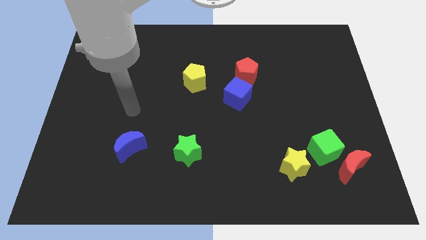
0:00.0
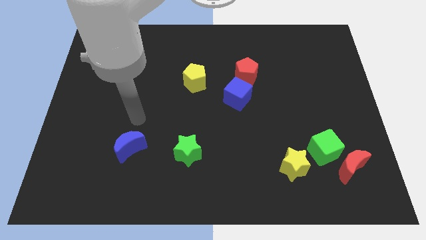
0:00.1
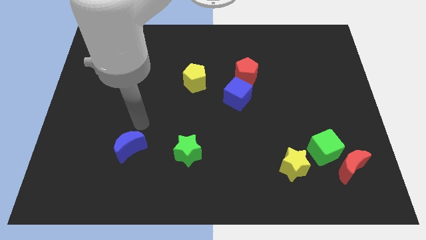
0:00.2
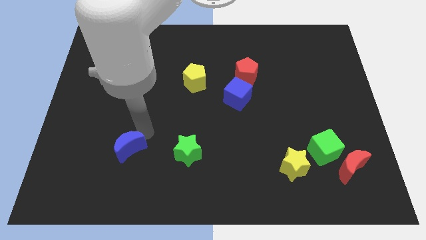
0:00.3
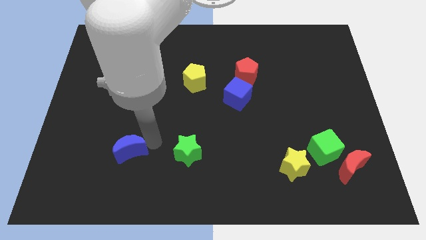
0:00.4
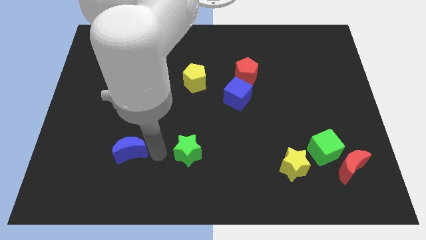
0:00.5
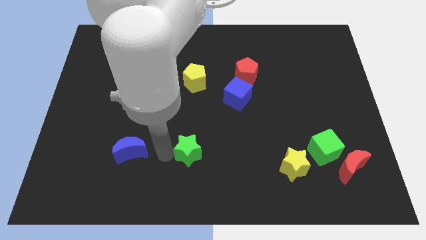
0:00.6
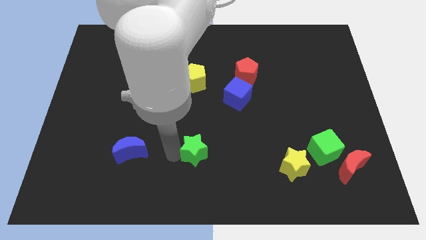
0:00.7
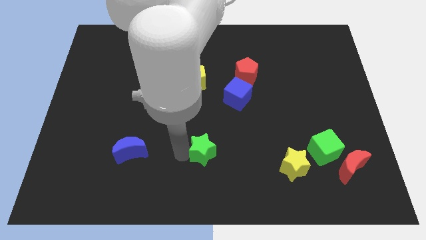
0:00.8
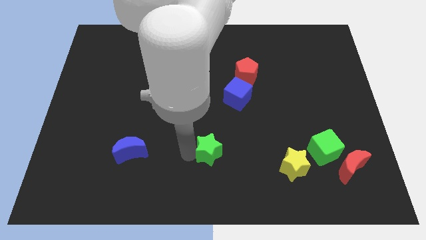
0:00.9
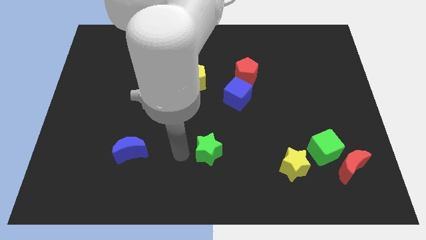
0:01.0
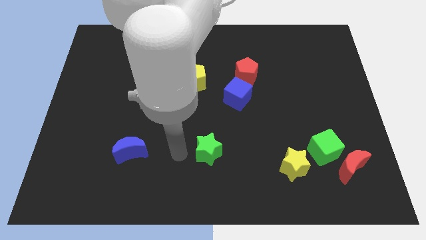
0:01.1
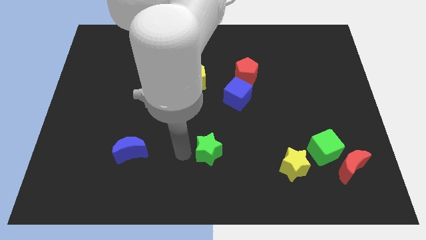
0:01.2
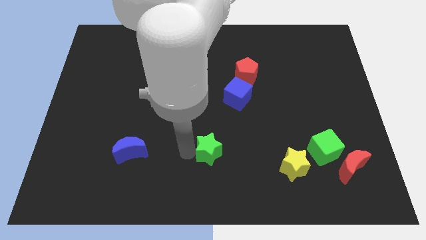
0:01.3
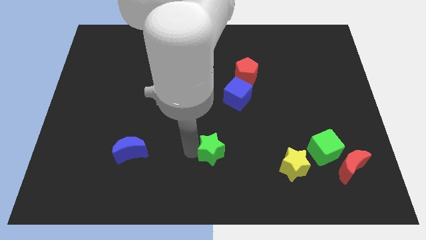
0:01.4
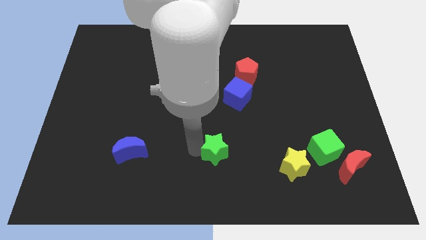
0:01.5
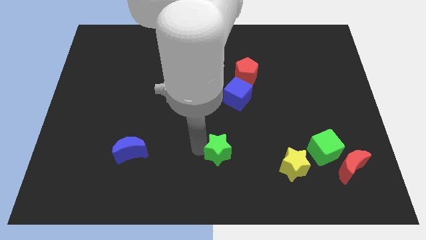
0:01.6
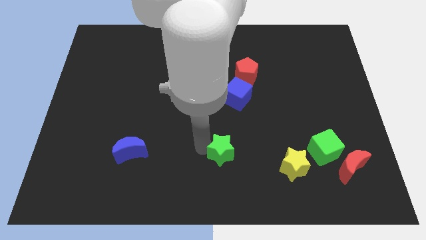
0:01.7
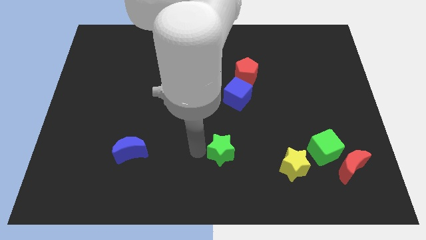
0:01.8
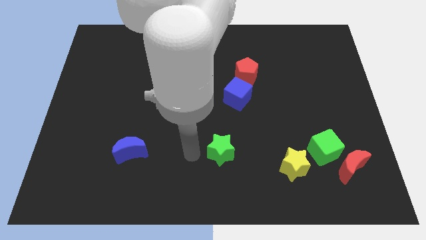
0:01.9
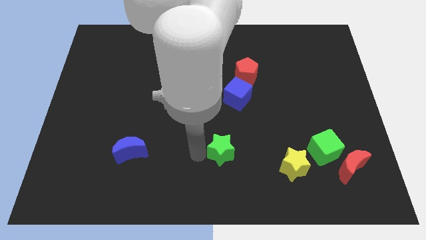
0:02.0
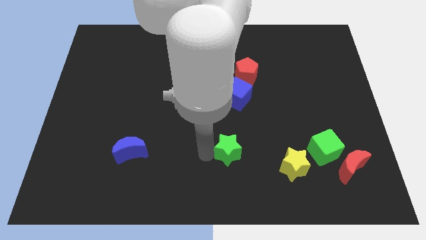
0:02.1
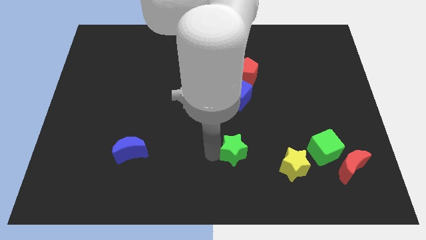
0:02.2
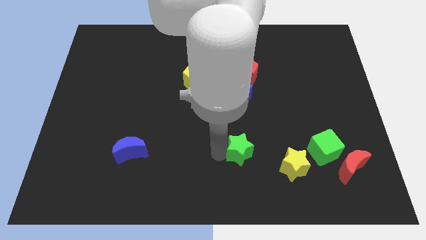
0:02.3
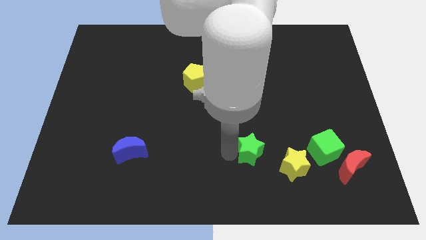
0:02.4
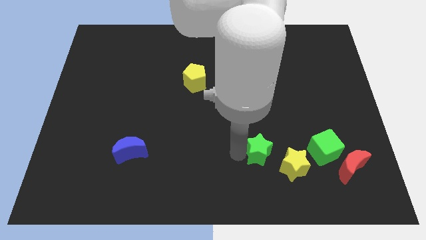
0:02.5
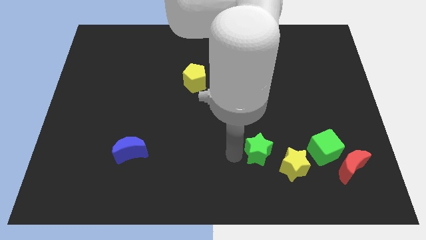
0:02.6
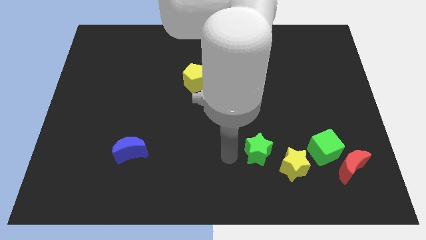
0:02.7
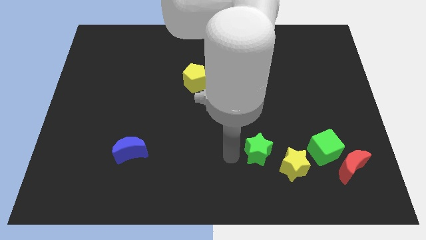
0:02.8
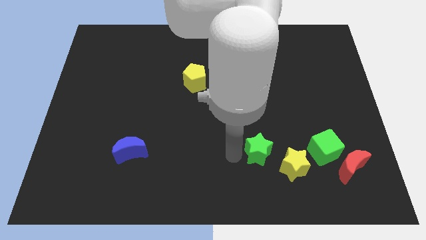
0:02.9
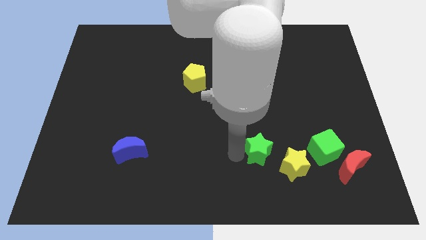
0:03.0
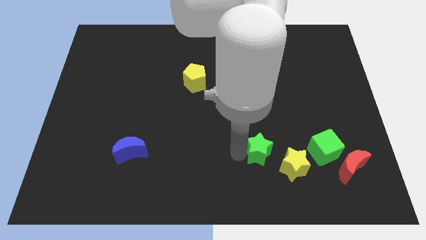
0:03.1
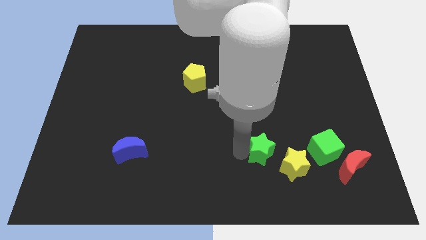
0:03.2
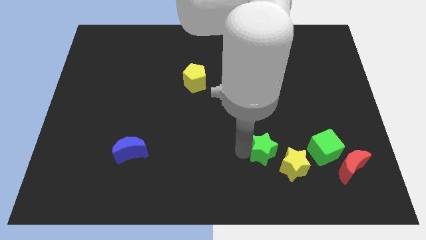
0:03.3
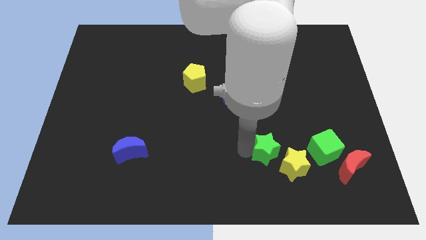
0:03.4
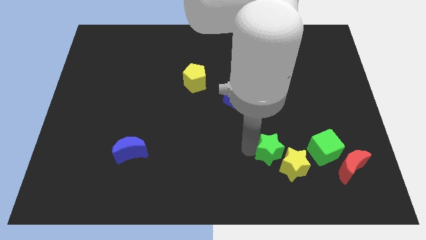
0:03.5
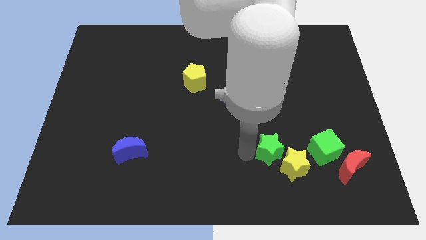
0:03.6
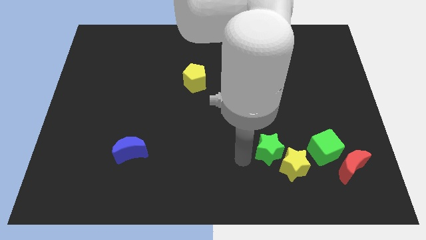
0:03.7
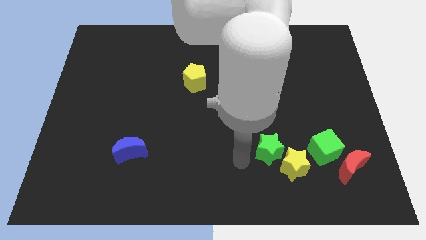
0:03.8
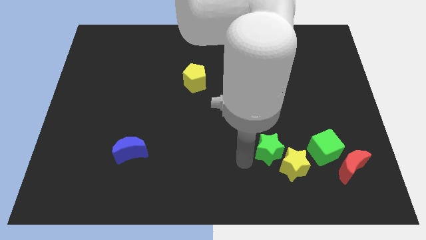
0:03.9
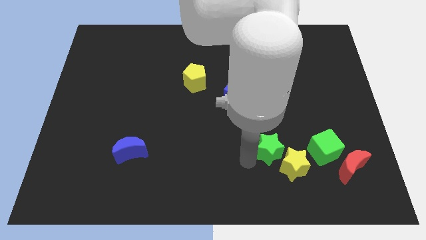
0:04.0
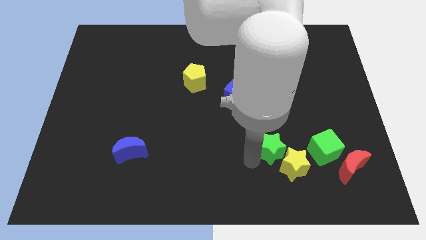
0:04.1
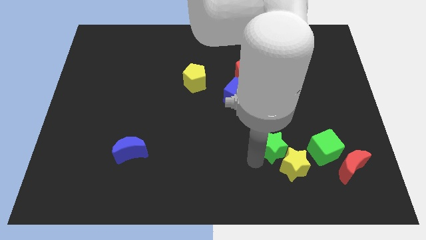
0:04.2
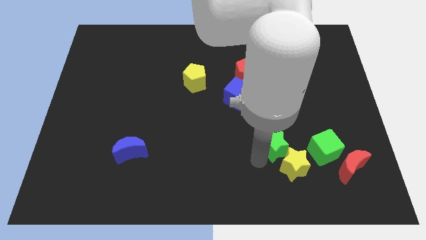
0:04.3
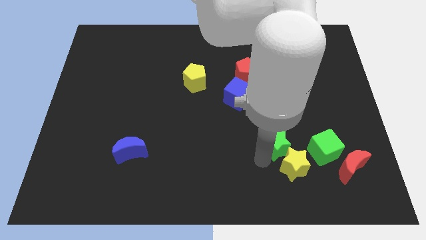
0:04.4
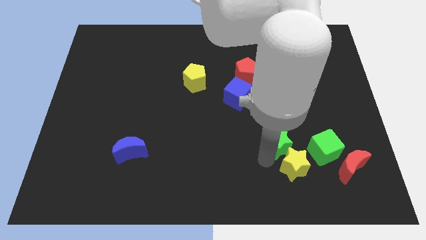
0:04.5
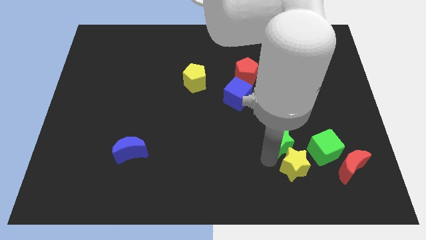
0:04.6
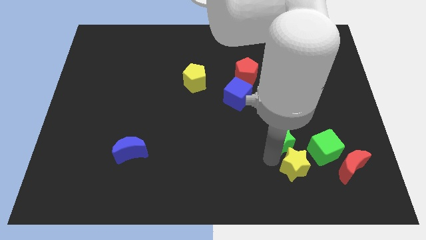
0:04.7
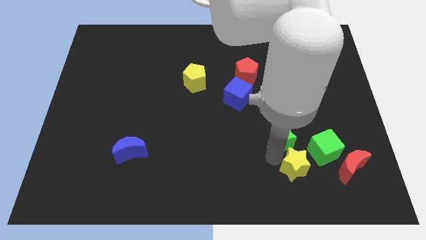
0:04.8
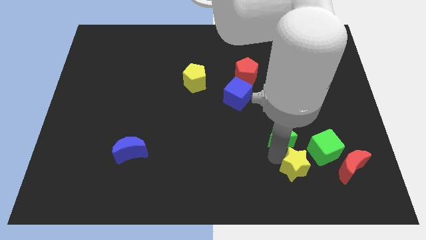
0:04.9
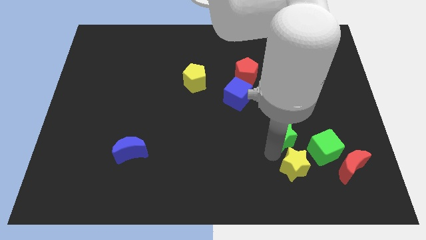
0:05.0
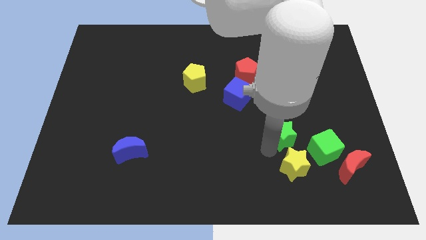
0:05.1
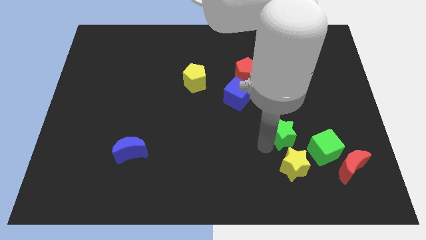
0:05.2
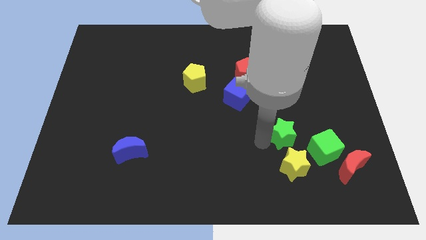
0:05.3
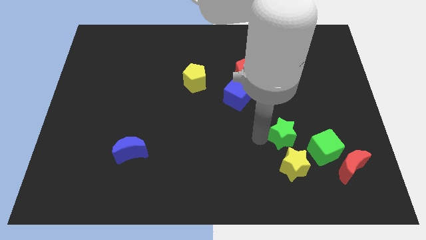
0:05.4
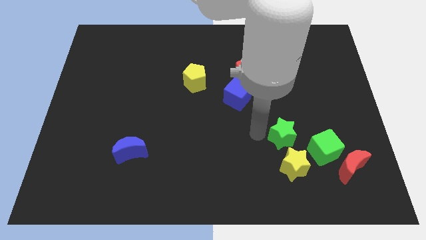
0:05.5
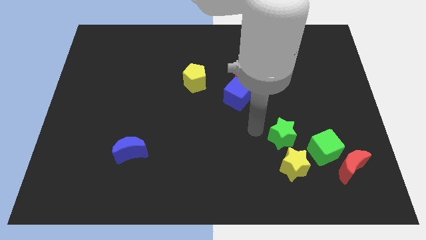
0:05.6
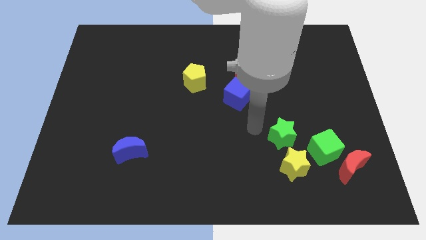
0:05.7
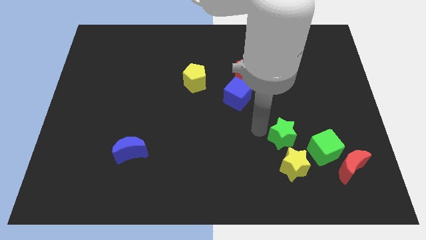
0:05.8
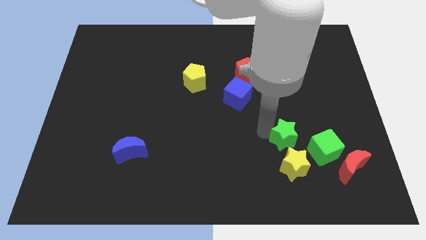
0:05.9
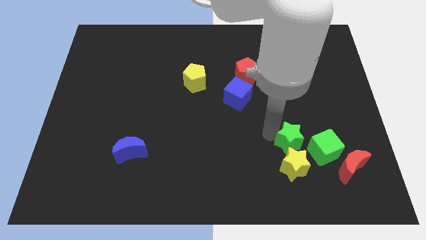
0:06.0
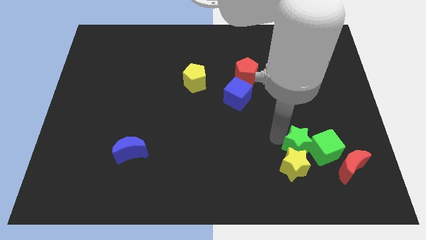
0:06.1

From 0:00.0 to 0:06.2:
put the green star to the green cube

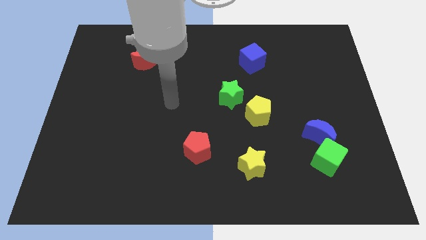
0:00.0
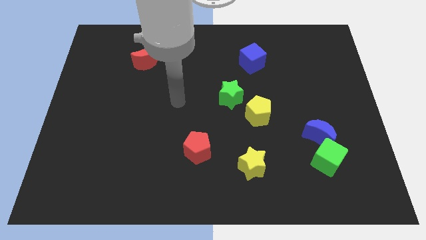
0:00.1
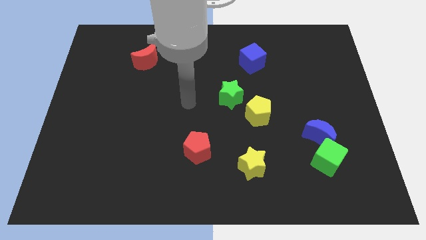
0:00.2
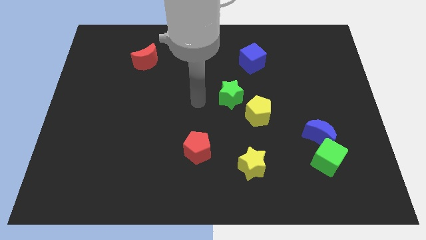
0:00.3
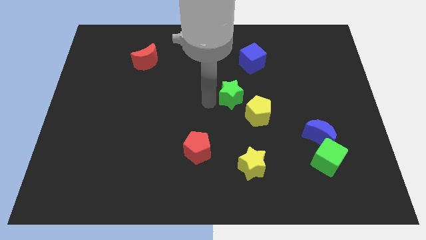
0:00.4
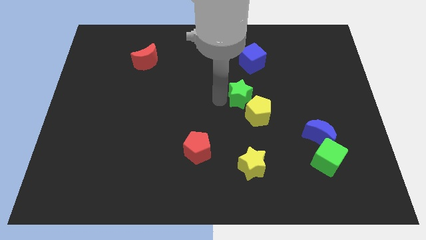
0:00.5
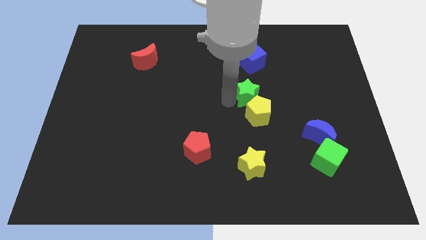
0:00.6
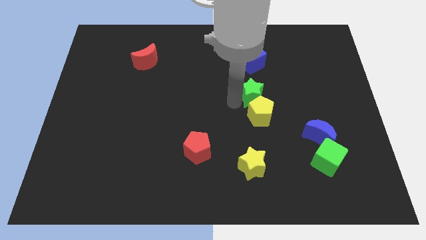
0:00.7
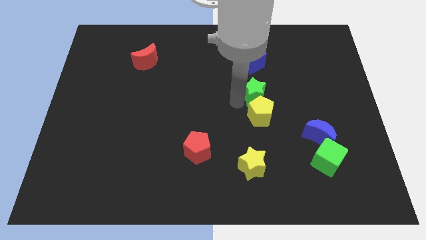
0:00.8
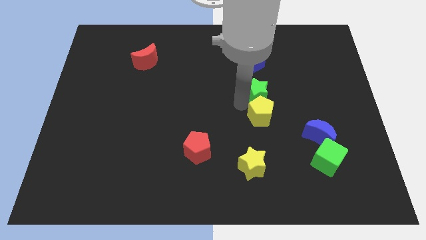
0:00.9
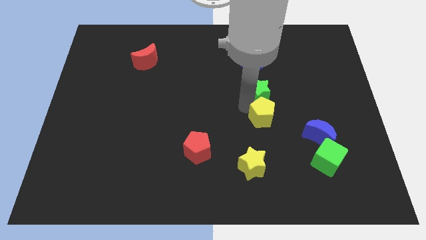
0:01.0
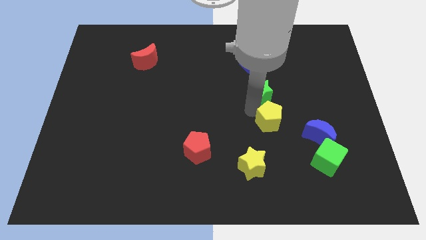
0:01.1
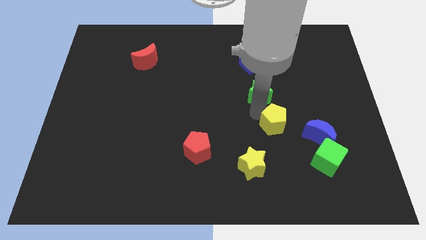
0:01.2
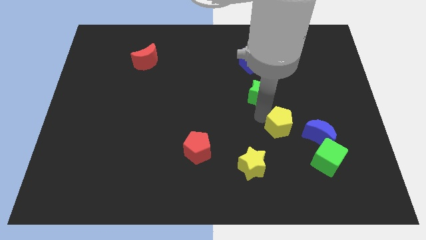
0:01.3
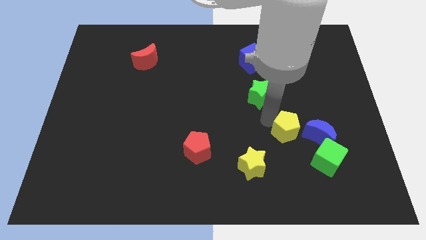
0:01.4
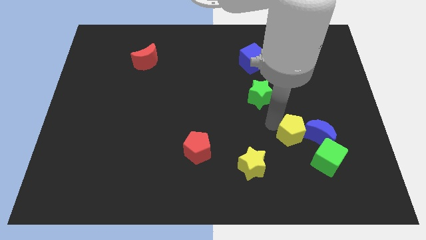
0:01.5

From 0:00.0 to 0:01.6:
slide the yellow pentagon next to the blue moon
